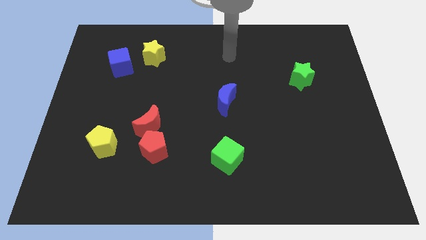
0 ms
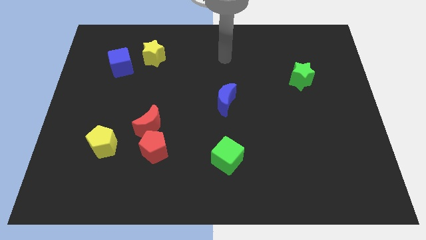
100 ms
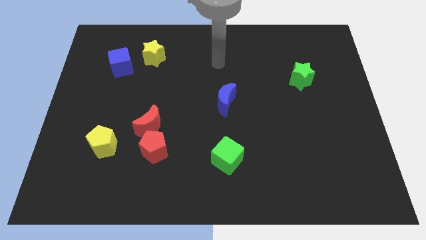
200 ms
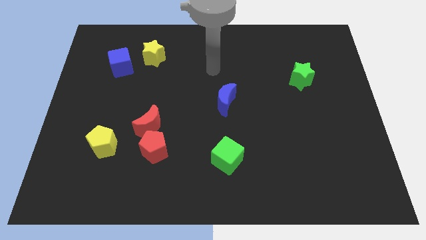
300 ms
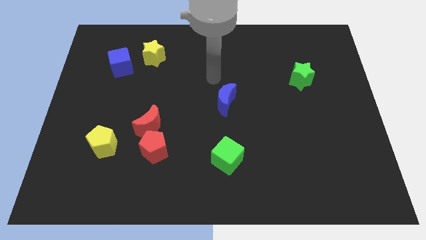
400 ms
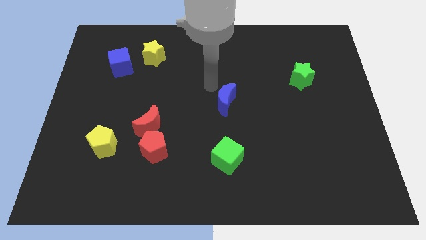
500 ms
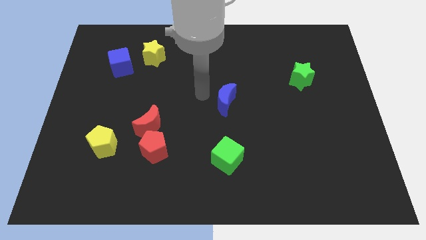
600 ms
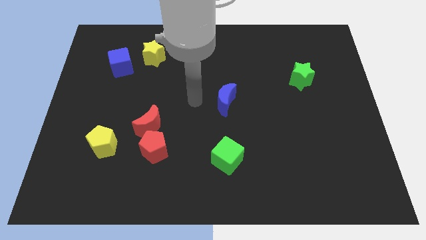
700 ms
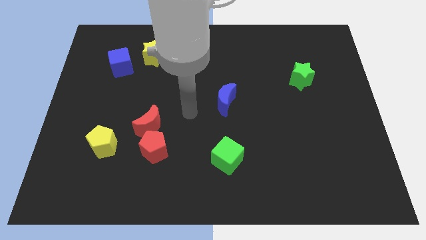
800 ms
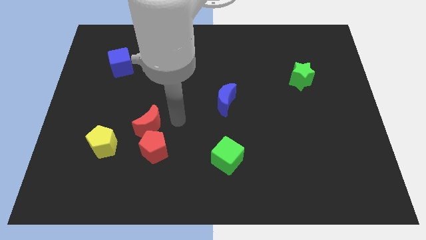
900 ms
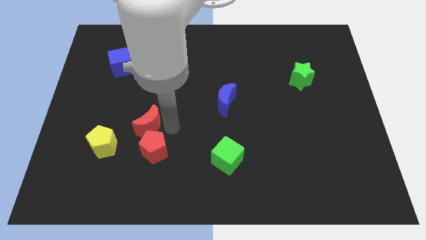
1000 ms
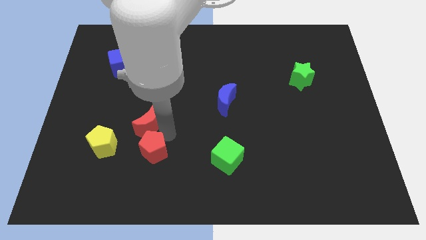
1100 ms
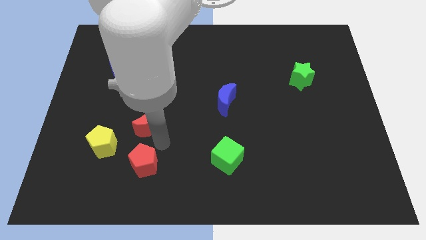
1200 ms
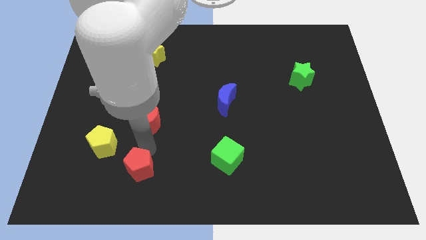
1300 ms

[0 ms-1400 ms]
pull the red moon apart from the red pentagon

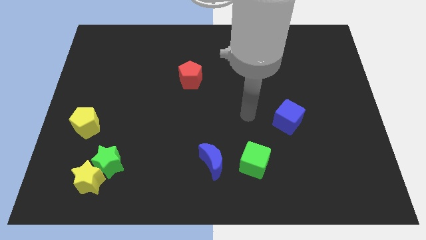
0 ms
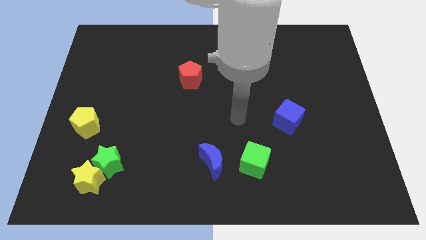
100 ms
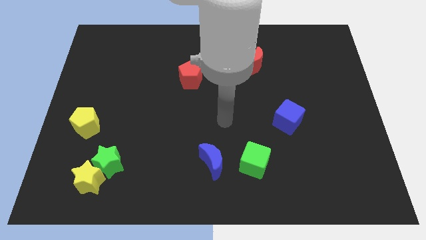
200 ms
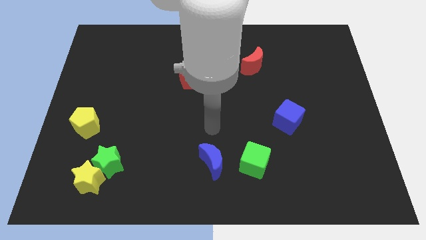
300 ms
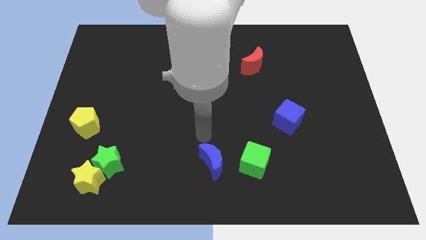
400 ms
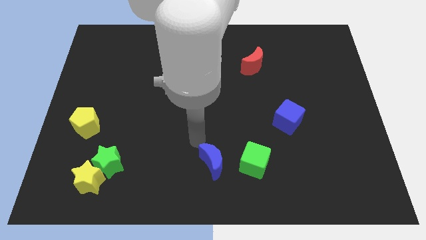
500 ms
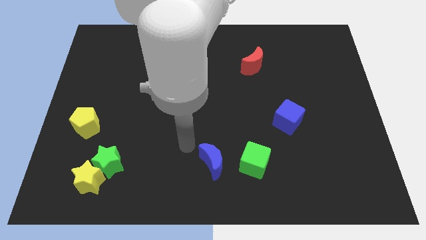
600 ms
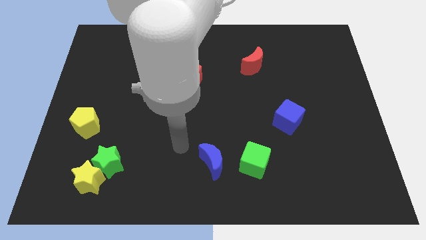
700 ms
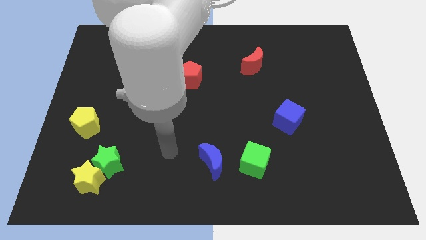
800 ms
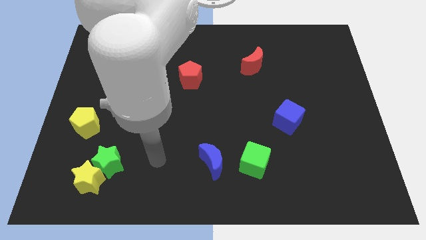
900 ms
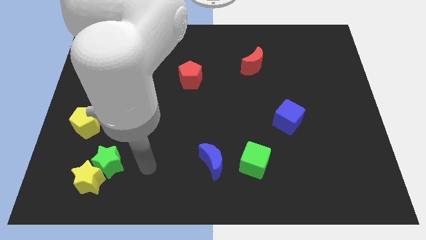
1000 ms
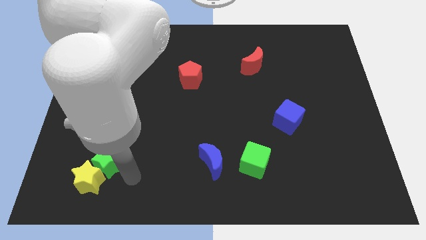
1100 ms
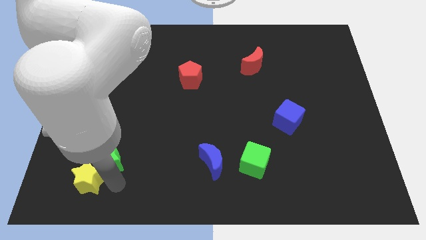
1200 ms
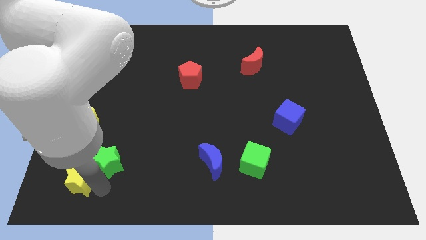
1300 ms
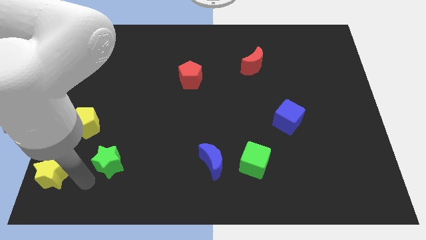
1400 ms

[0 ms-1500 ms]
separate the green star from the yellow star

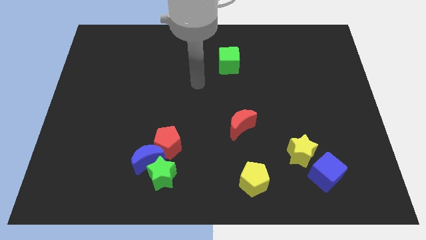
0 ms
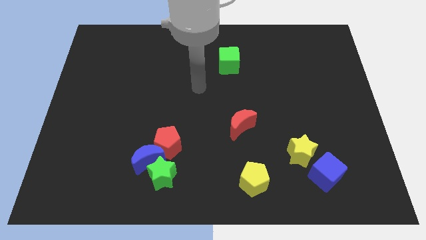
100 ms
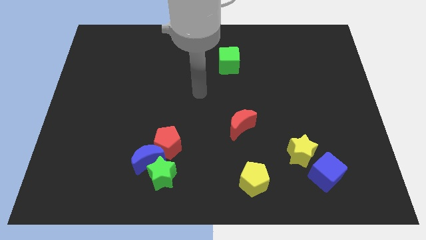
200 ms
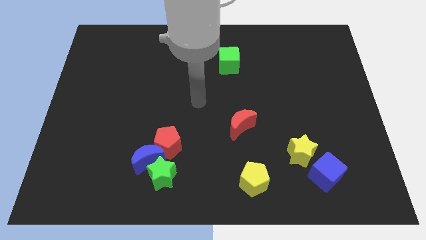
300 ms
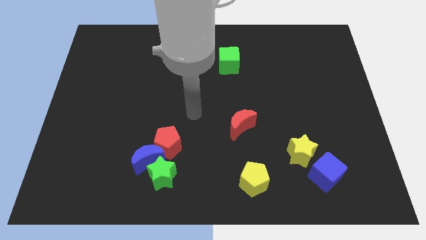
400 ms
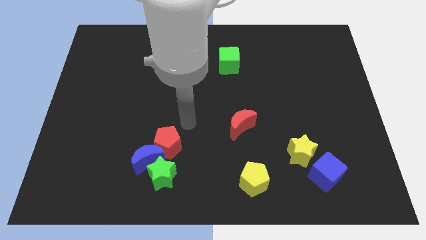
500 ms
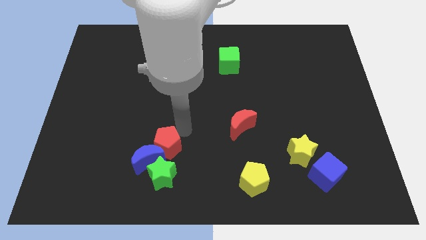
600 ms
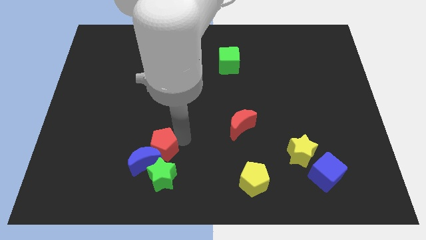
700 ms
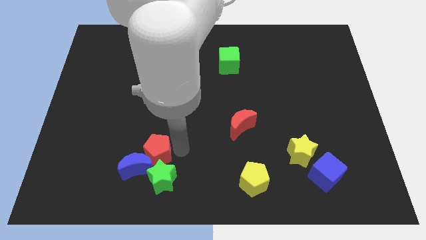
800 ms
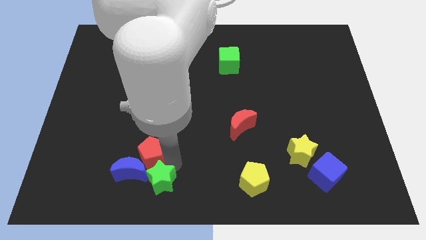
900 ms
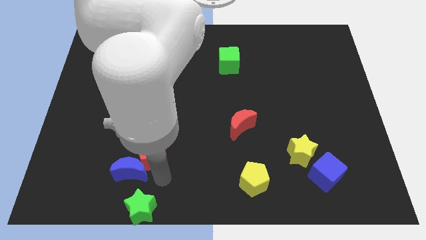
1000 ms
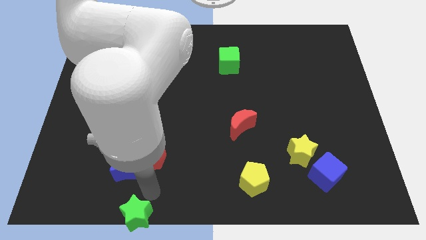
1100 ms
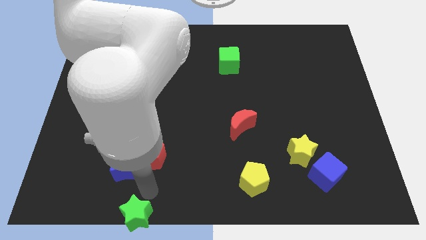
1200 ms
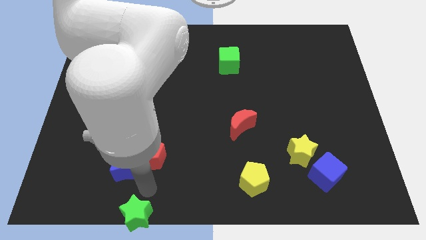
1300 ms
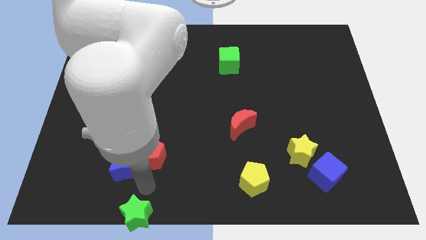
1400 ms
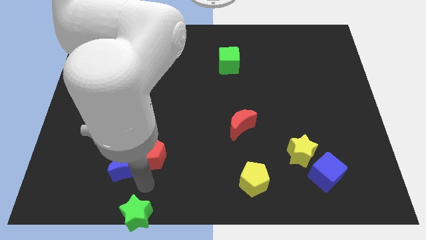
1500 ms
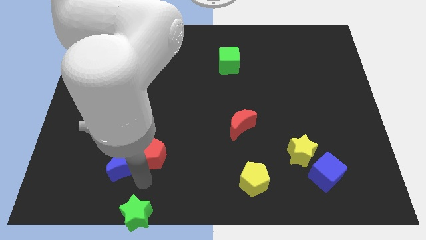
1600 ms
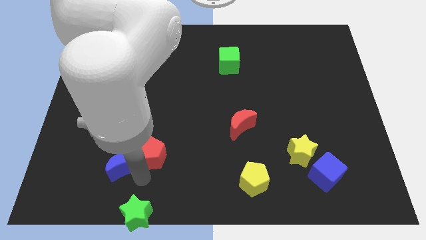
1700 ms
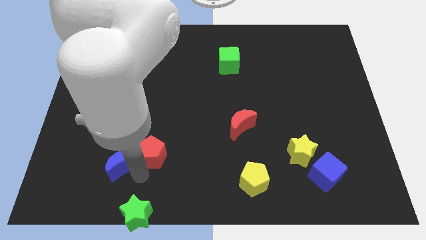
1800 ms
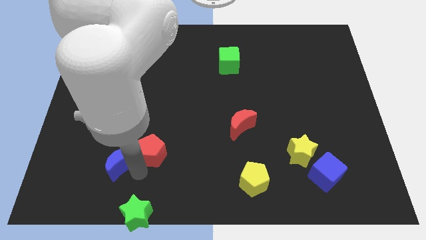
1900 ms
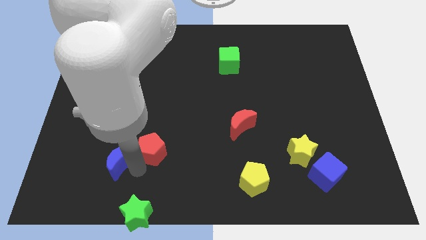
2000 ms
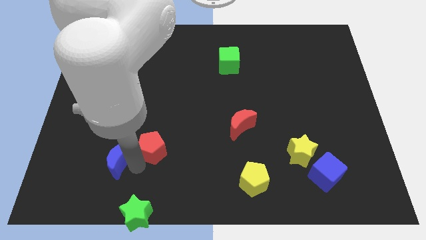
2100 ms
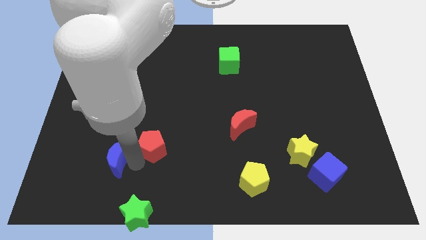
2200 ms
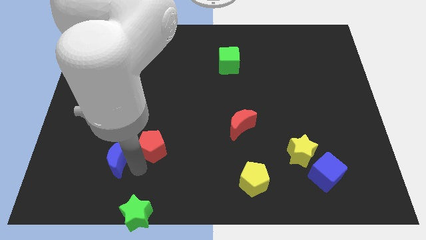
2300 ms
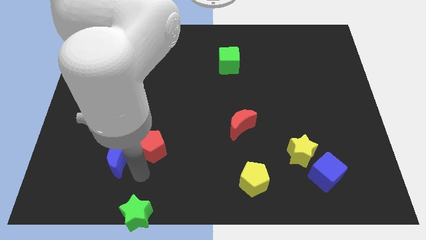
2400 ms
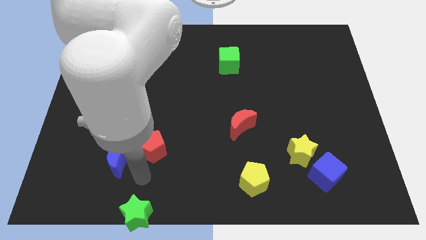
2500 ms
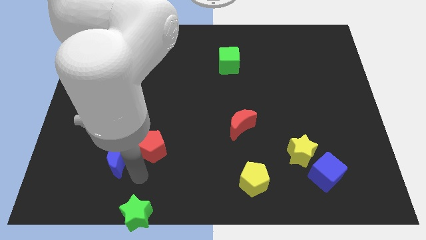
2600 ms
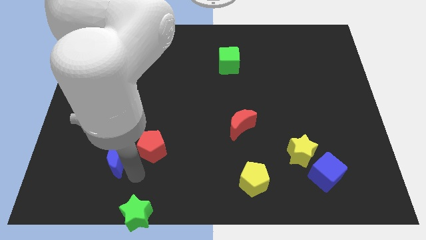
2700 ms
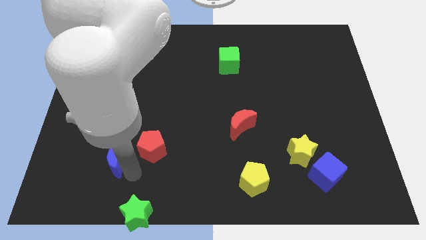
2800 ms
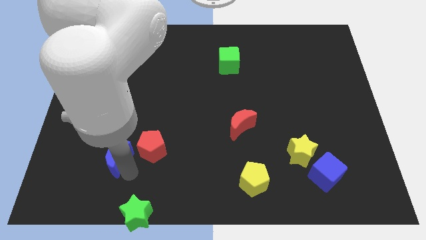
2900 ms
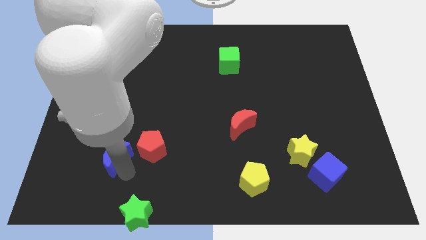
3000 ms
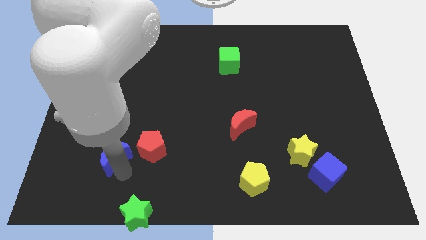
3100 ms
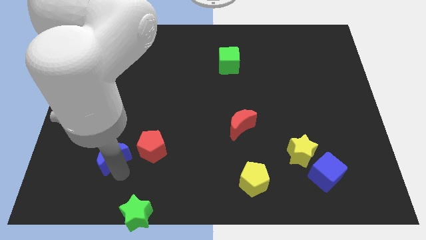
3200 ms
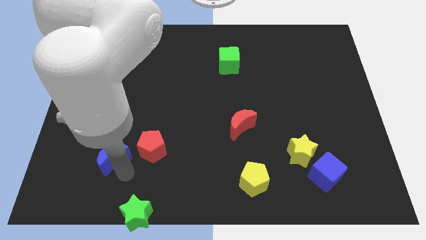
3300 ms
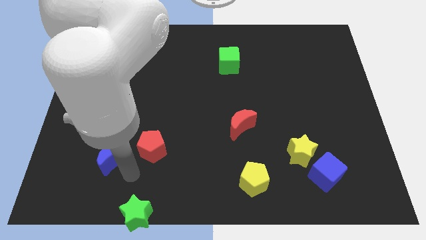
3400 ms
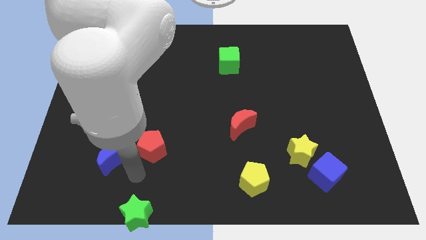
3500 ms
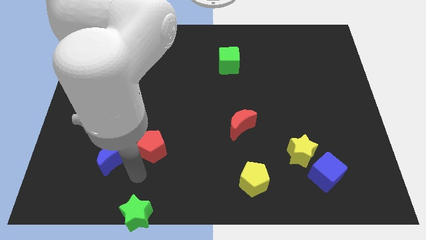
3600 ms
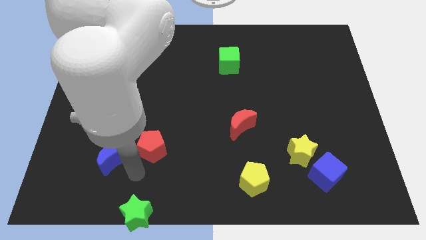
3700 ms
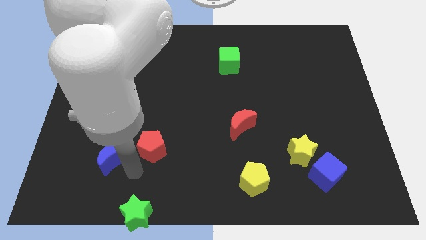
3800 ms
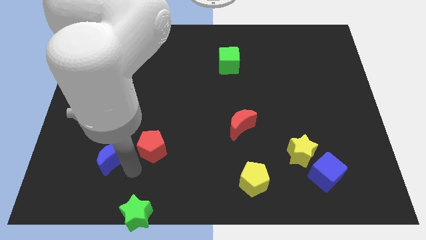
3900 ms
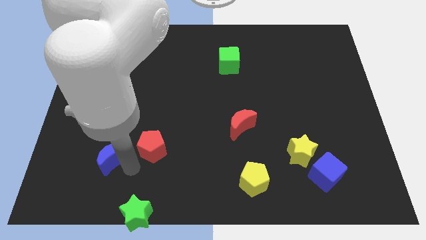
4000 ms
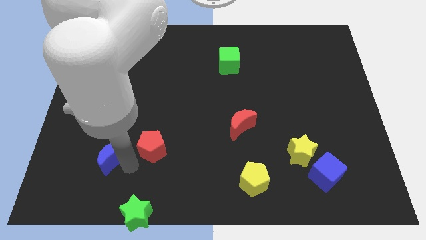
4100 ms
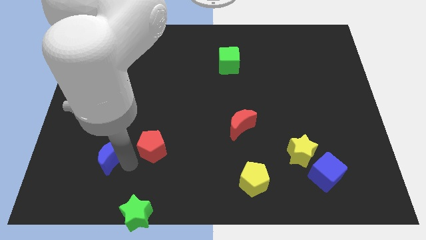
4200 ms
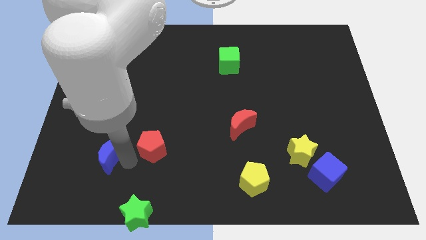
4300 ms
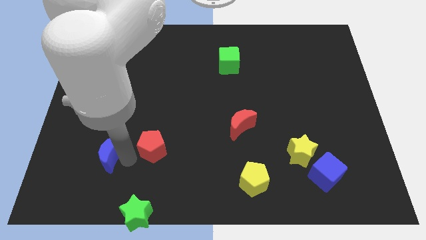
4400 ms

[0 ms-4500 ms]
separate the blue moon from the green star and red pentagon

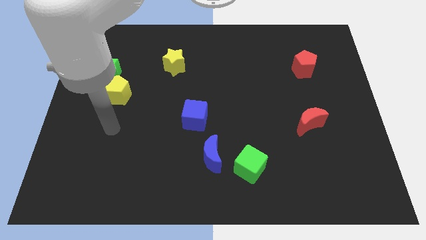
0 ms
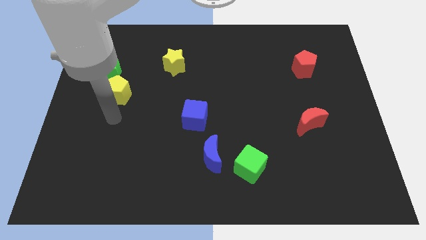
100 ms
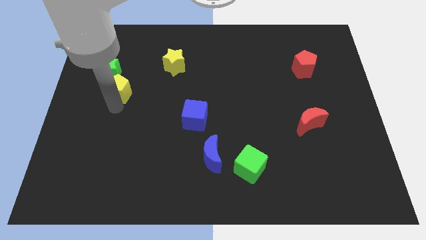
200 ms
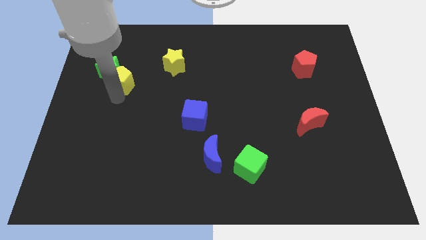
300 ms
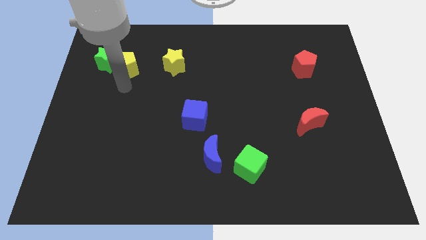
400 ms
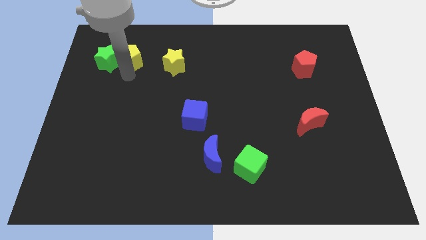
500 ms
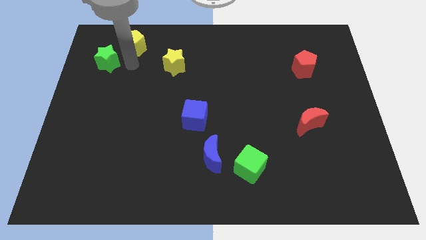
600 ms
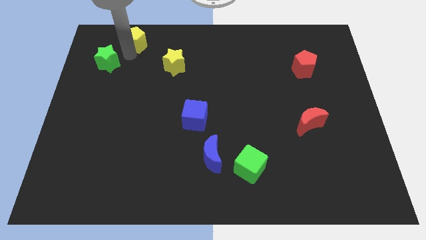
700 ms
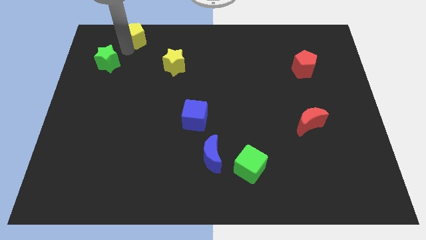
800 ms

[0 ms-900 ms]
separate the green star from the yellow pentagon

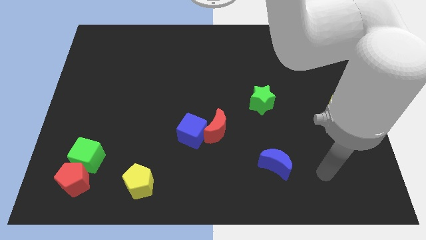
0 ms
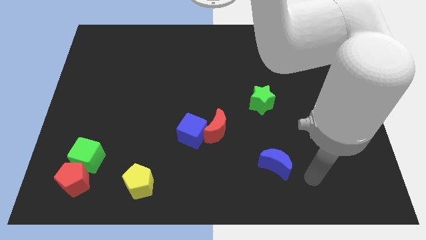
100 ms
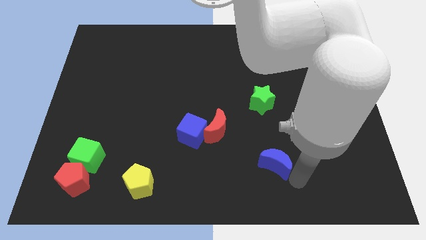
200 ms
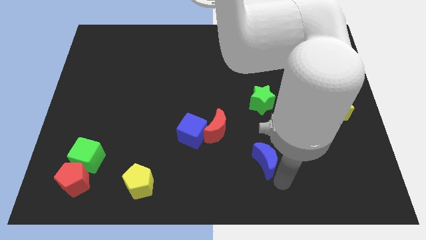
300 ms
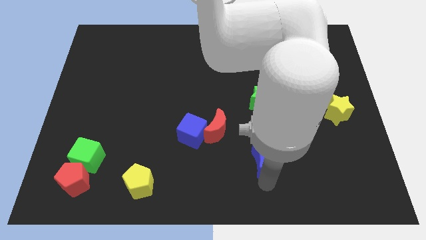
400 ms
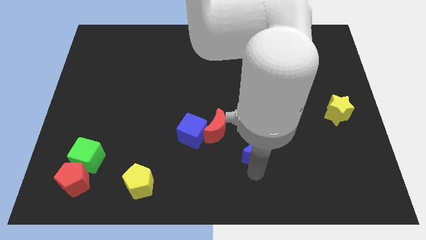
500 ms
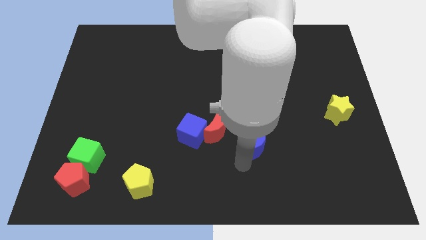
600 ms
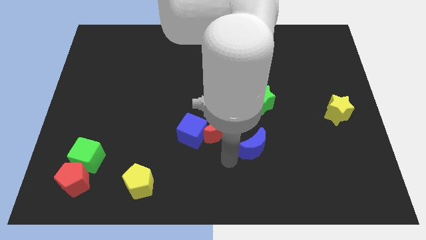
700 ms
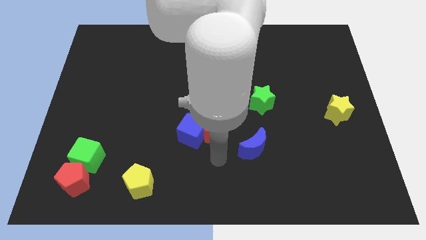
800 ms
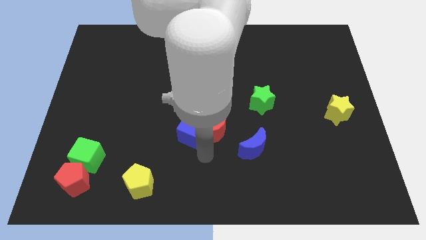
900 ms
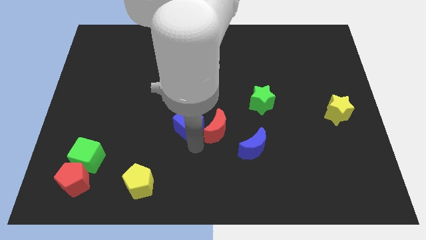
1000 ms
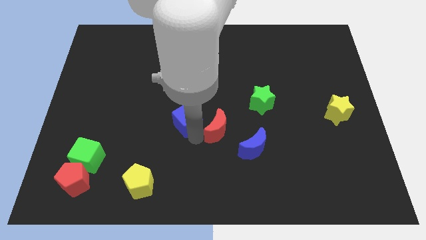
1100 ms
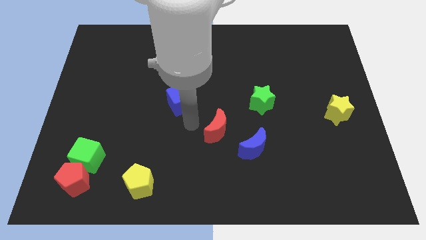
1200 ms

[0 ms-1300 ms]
separate the red moon from the blue cube
